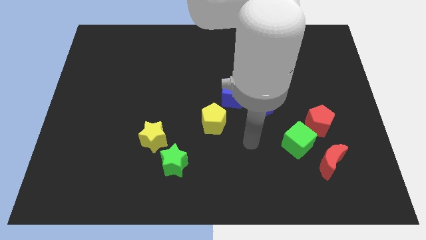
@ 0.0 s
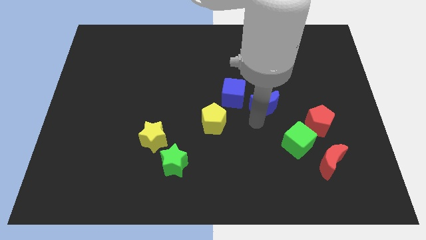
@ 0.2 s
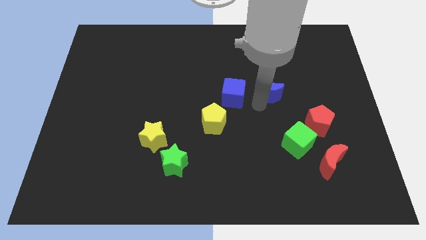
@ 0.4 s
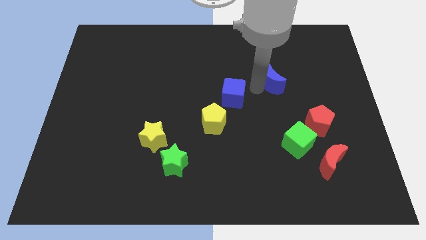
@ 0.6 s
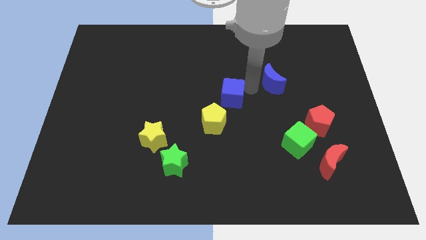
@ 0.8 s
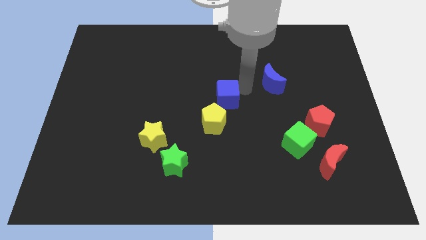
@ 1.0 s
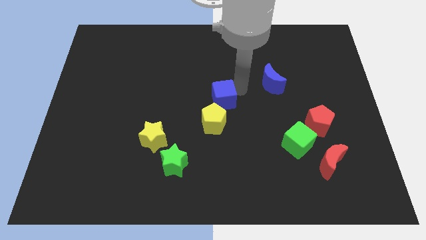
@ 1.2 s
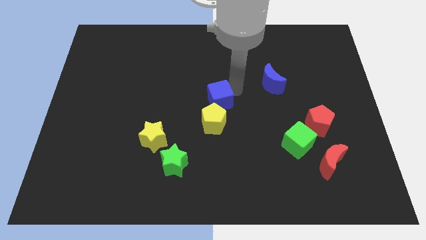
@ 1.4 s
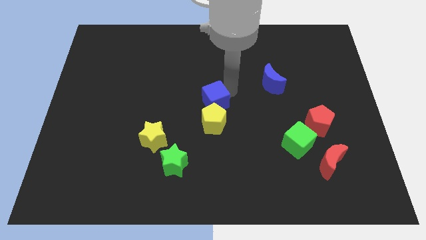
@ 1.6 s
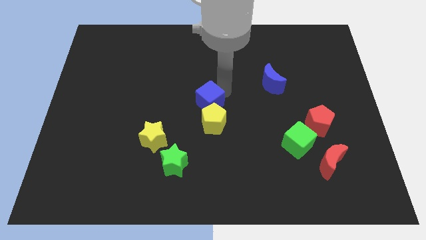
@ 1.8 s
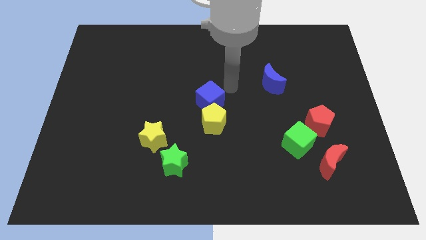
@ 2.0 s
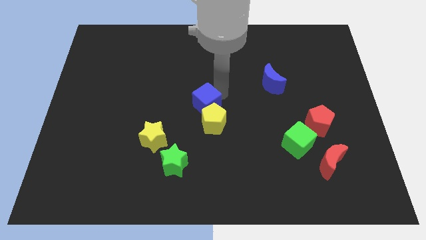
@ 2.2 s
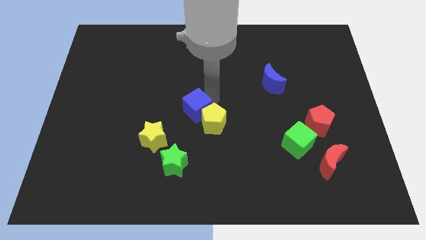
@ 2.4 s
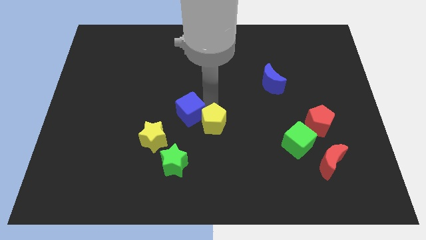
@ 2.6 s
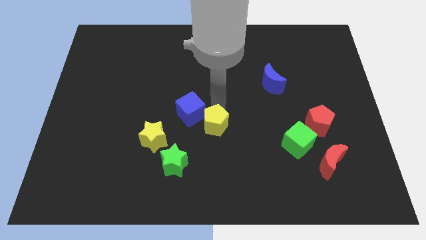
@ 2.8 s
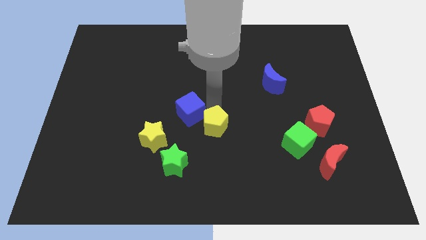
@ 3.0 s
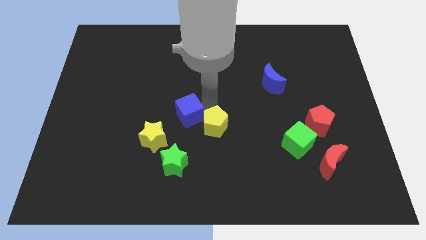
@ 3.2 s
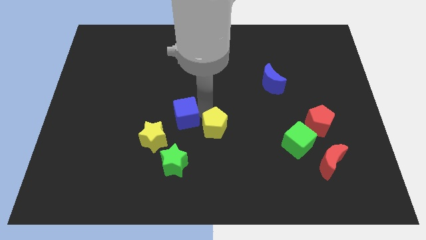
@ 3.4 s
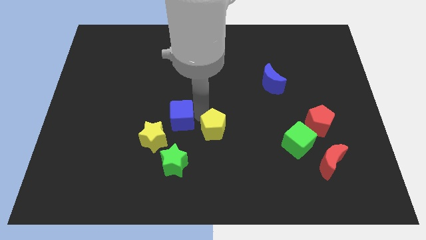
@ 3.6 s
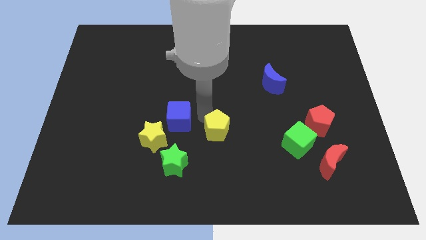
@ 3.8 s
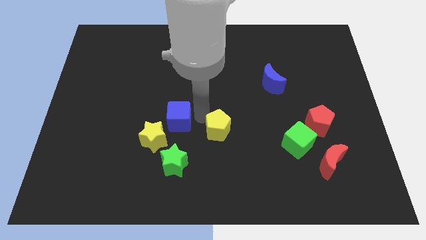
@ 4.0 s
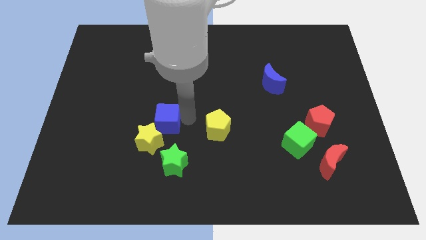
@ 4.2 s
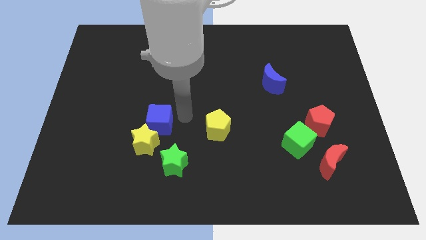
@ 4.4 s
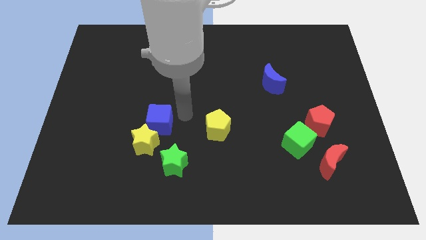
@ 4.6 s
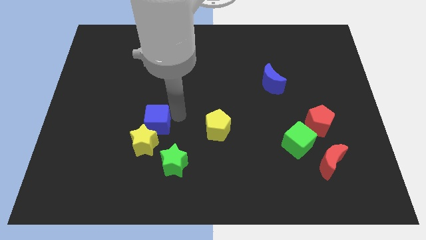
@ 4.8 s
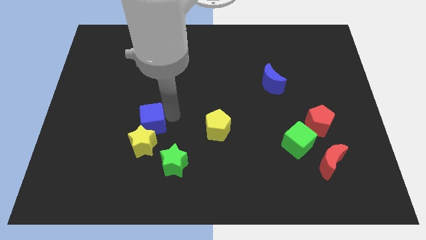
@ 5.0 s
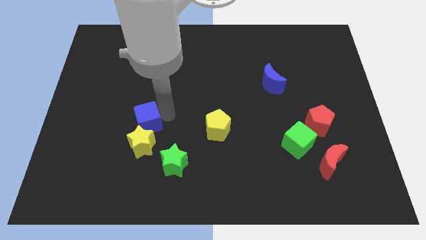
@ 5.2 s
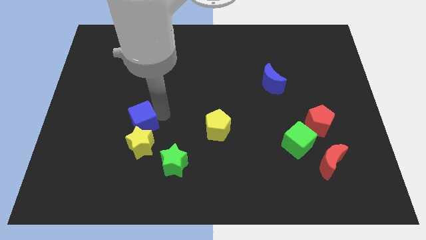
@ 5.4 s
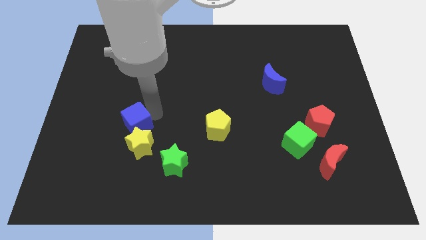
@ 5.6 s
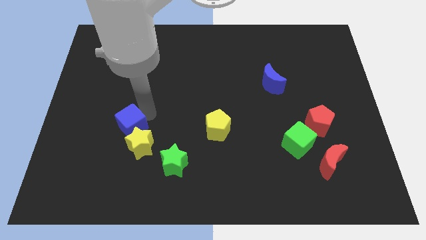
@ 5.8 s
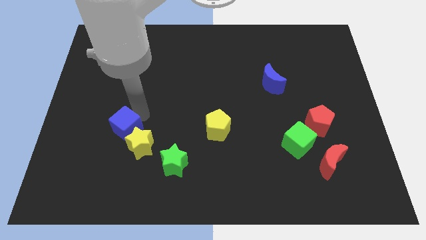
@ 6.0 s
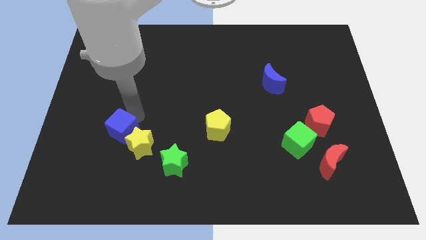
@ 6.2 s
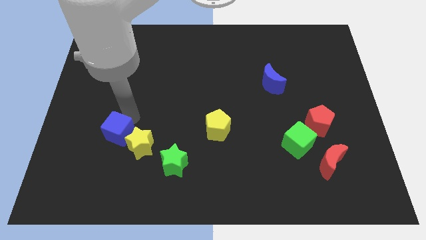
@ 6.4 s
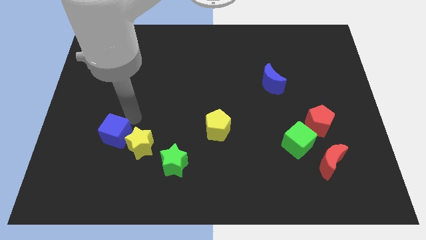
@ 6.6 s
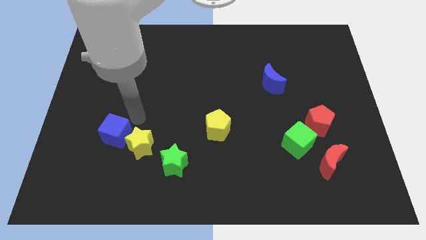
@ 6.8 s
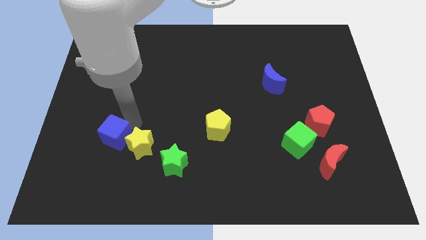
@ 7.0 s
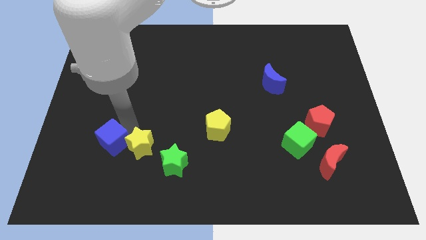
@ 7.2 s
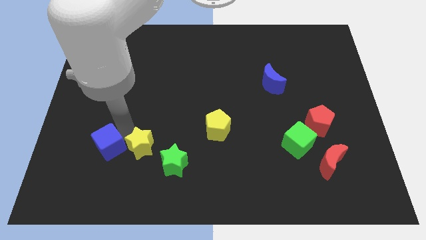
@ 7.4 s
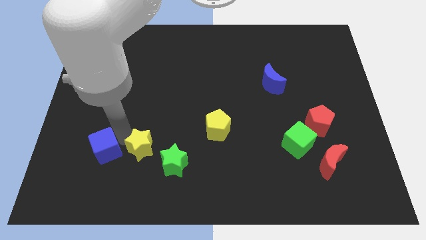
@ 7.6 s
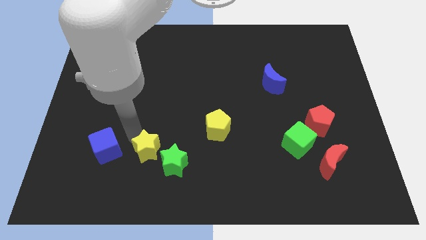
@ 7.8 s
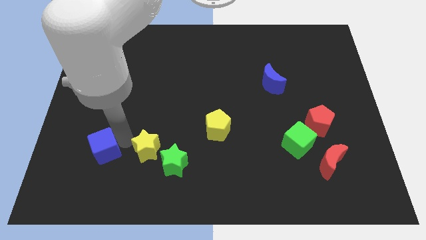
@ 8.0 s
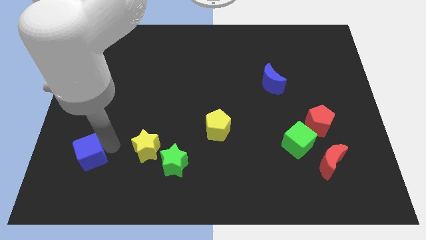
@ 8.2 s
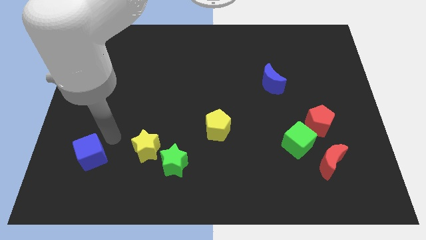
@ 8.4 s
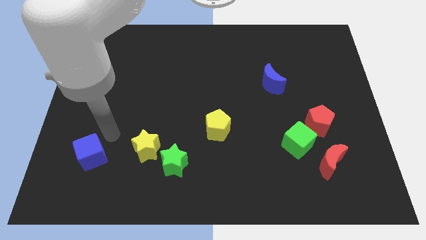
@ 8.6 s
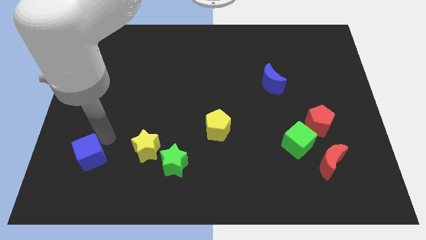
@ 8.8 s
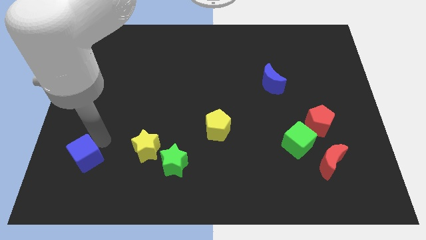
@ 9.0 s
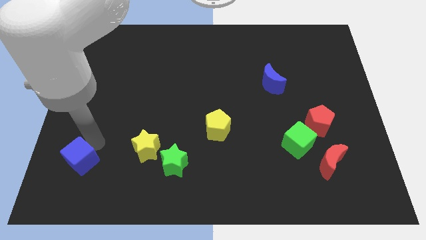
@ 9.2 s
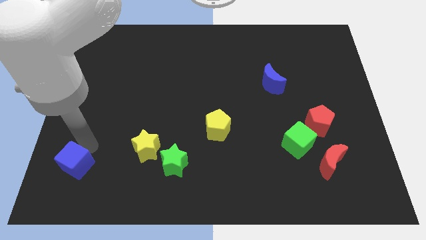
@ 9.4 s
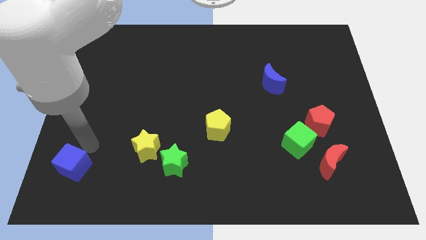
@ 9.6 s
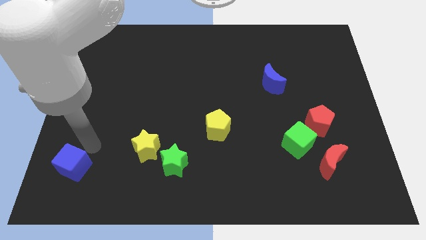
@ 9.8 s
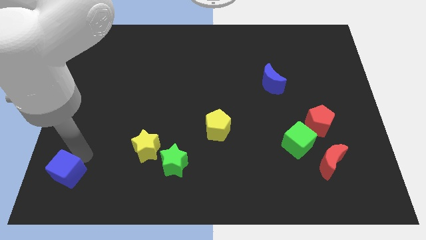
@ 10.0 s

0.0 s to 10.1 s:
move the blue cube to the bottom left

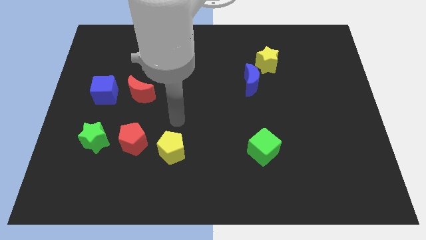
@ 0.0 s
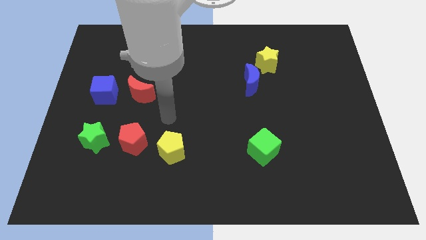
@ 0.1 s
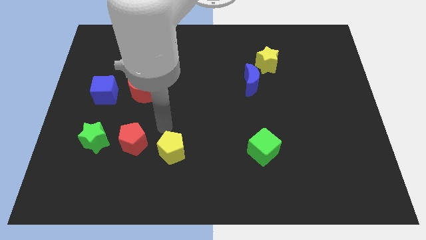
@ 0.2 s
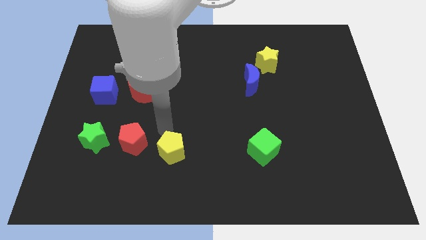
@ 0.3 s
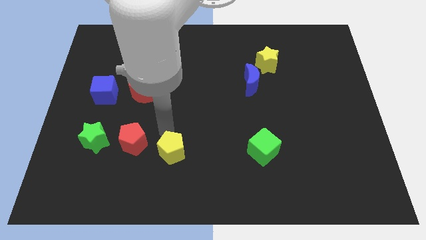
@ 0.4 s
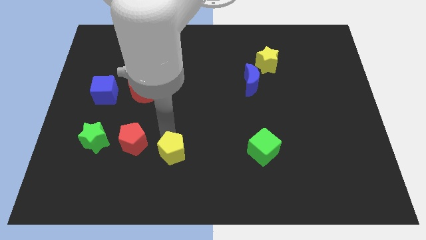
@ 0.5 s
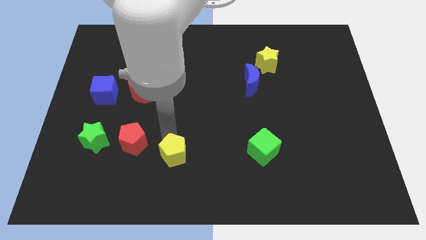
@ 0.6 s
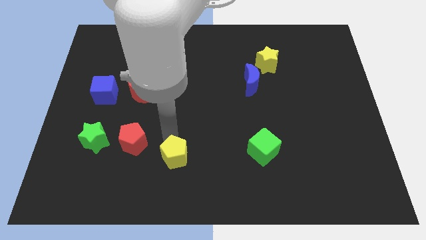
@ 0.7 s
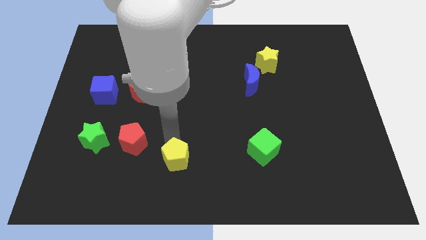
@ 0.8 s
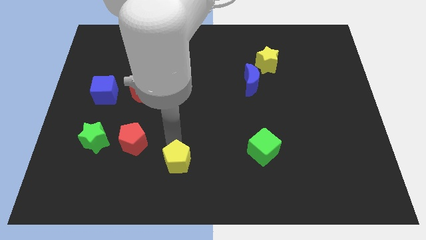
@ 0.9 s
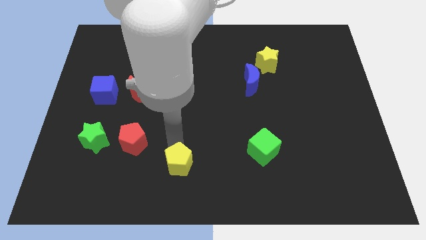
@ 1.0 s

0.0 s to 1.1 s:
move the yellow pentagon to the bottom side

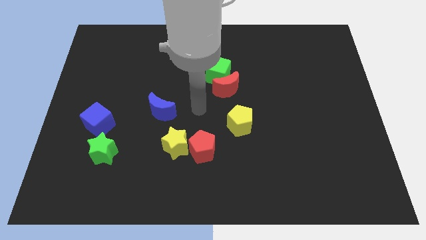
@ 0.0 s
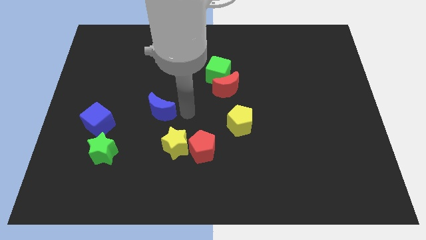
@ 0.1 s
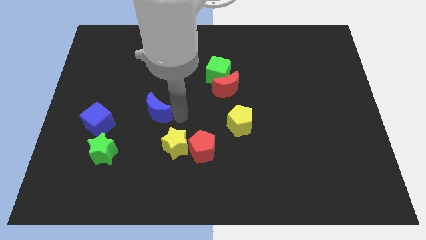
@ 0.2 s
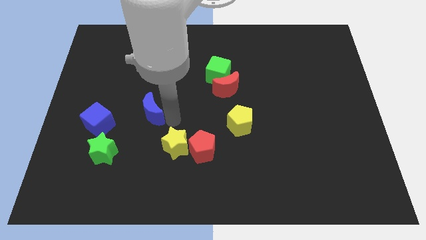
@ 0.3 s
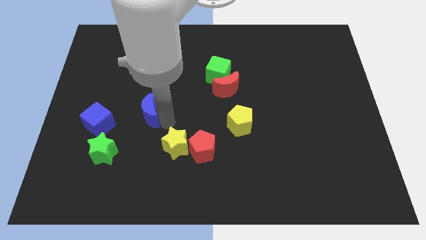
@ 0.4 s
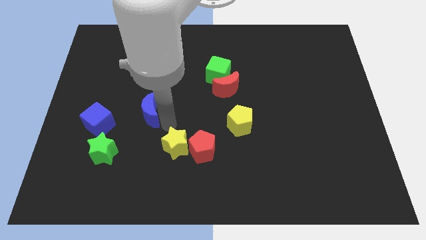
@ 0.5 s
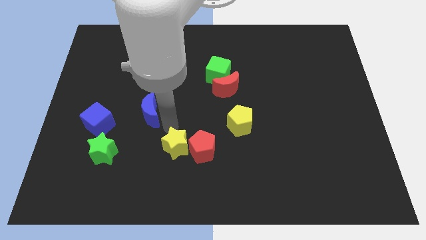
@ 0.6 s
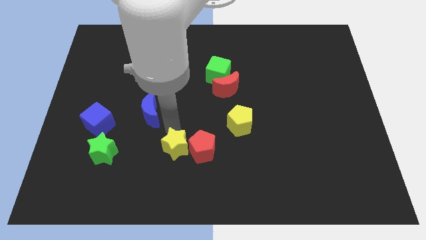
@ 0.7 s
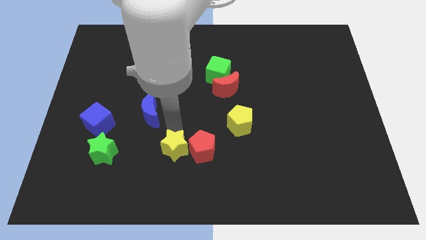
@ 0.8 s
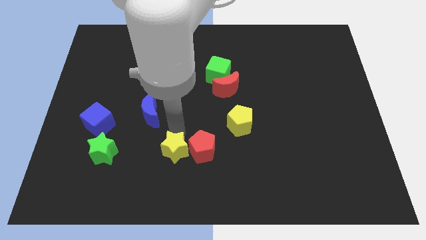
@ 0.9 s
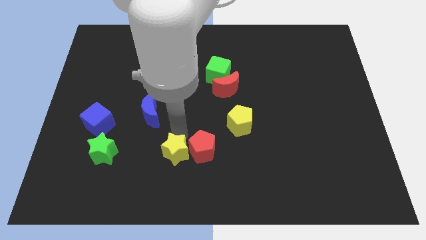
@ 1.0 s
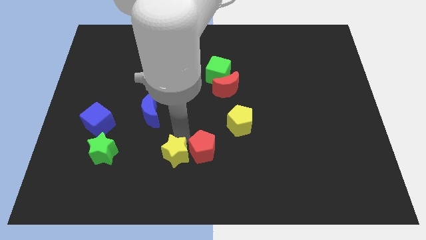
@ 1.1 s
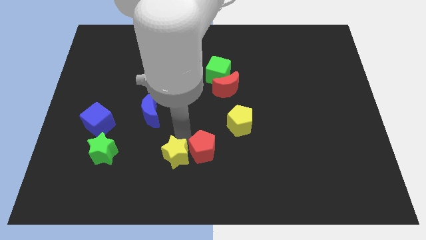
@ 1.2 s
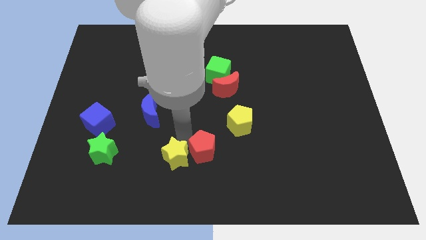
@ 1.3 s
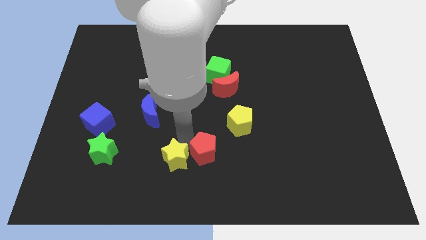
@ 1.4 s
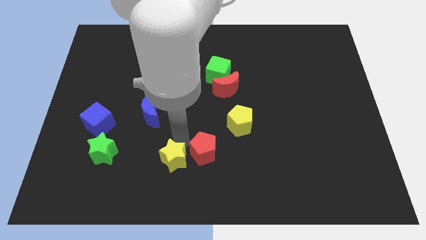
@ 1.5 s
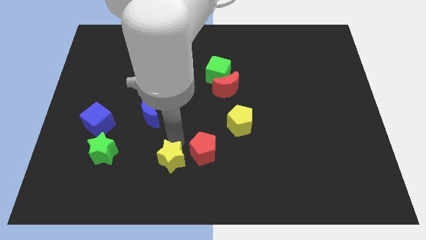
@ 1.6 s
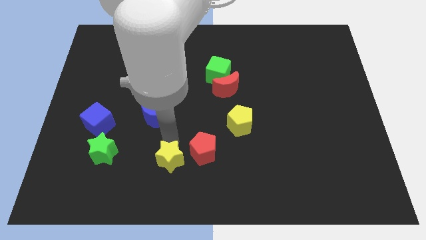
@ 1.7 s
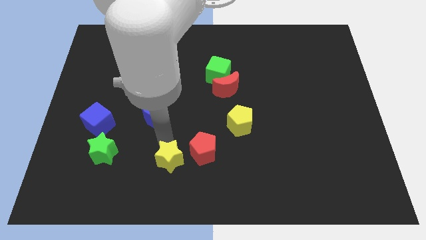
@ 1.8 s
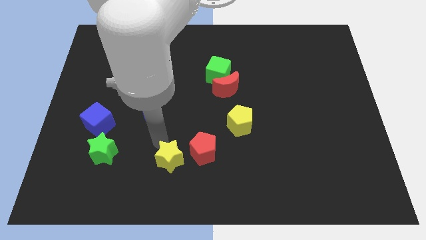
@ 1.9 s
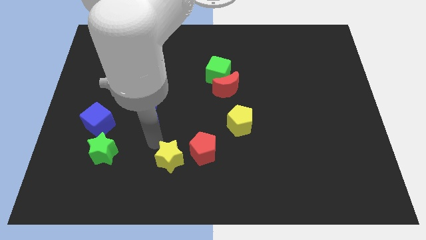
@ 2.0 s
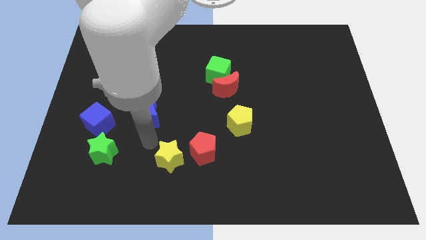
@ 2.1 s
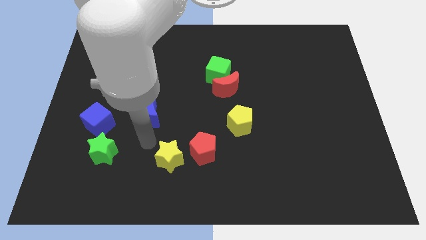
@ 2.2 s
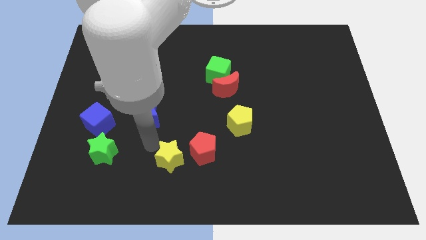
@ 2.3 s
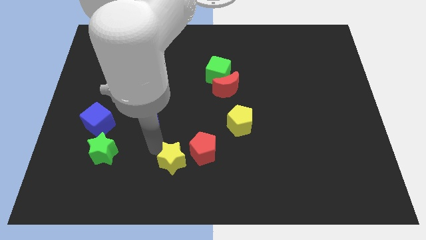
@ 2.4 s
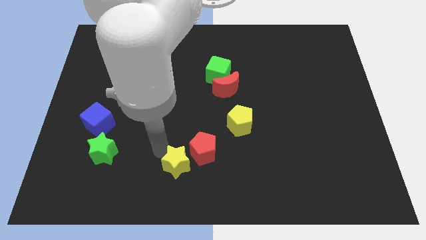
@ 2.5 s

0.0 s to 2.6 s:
slide the yellow star to the bottom side
